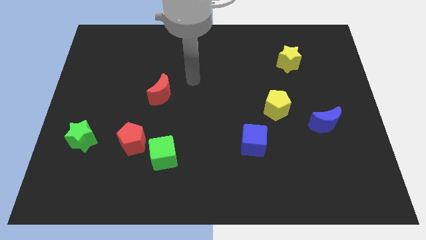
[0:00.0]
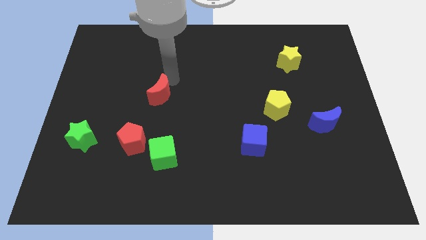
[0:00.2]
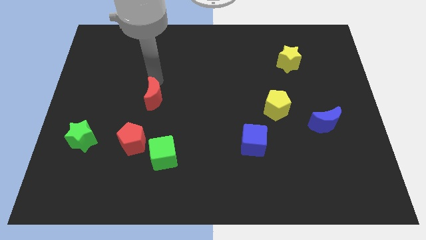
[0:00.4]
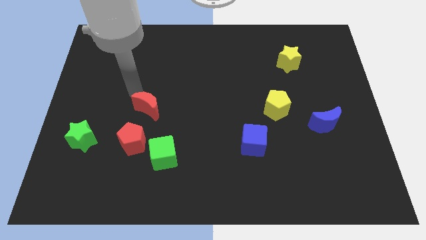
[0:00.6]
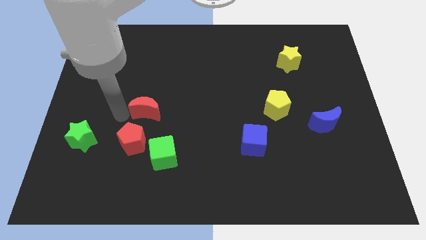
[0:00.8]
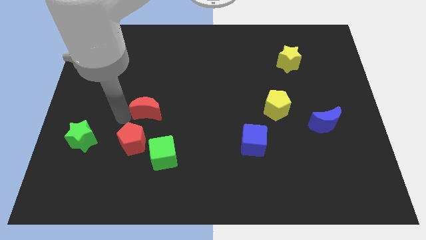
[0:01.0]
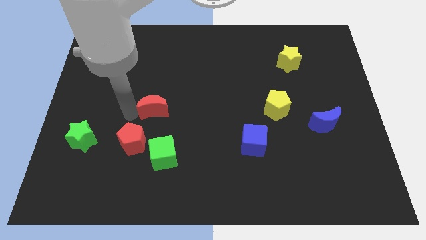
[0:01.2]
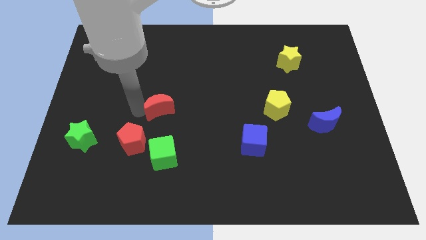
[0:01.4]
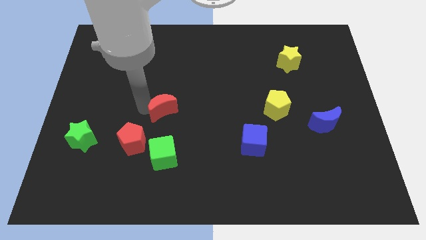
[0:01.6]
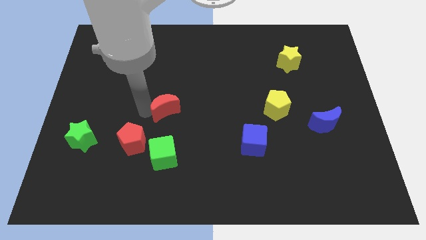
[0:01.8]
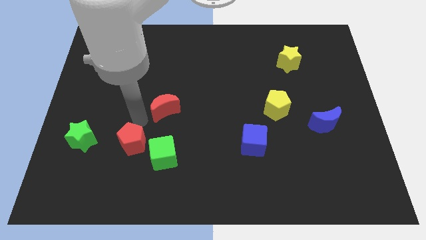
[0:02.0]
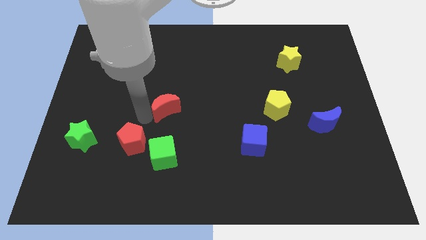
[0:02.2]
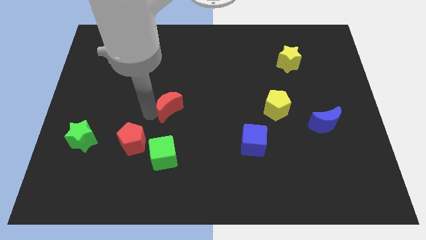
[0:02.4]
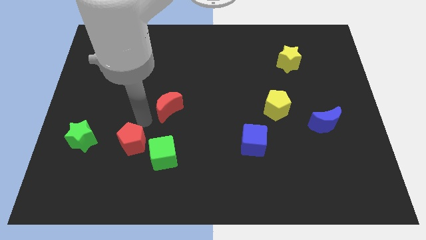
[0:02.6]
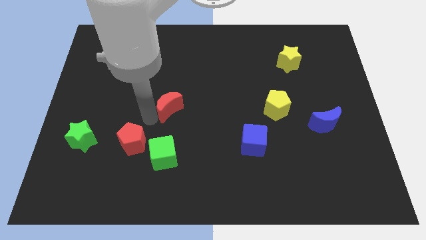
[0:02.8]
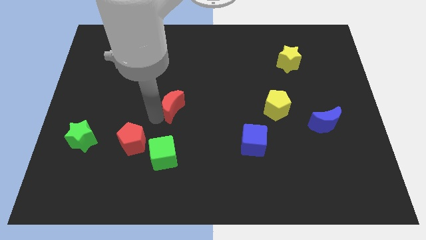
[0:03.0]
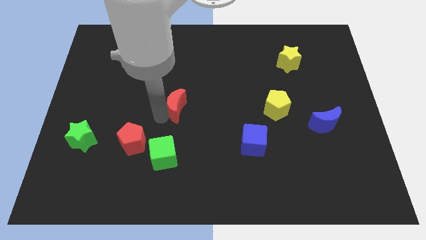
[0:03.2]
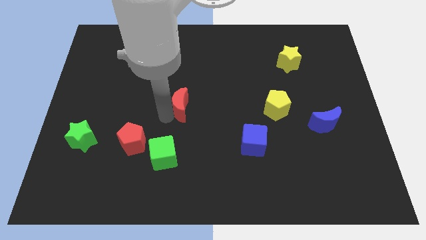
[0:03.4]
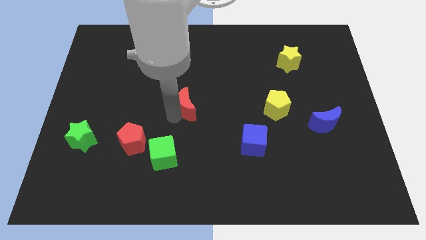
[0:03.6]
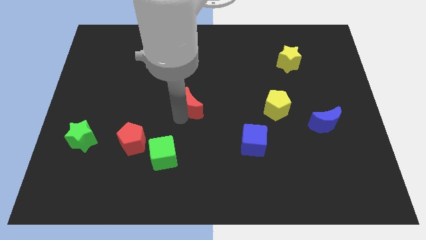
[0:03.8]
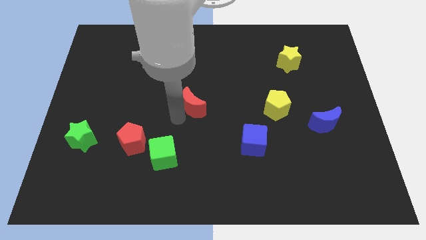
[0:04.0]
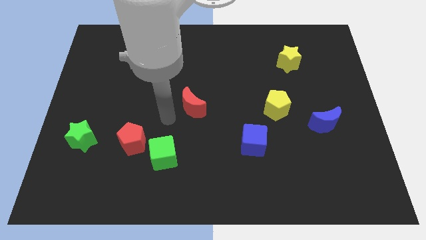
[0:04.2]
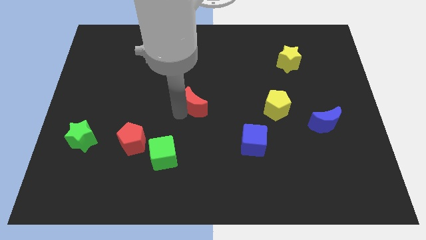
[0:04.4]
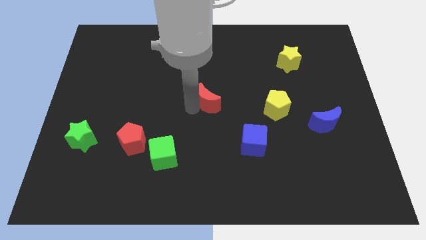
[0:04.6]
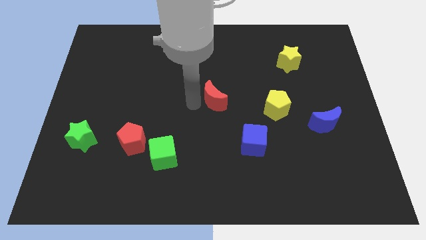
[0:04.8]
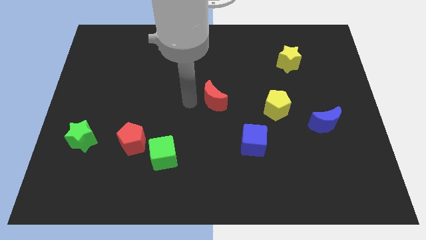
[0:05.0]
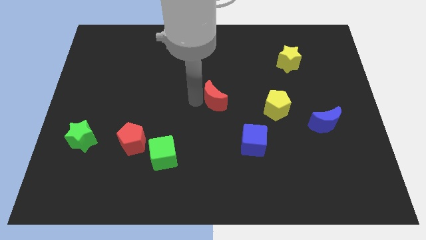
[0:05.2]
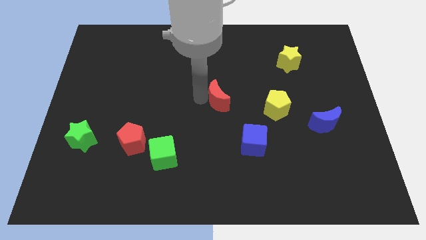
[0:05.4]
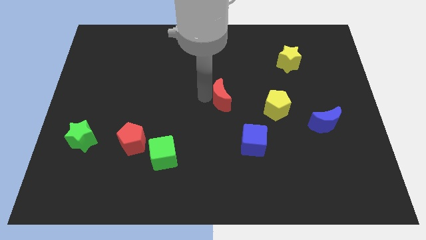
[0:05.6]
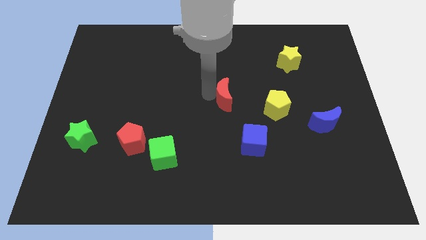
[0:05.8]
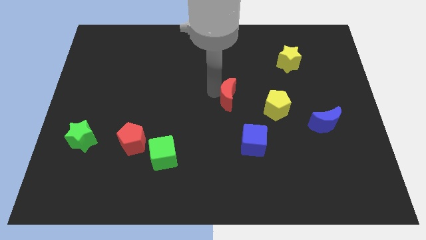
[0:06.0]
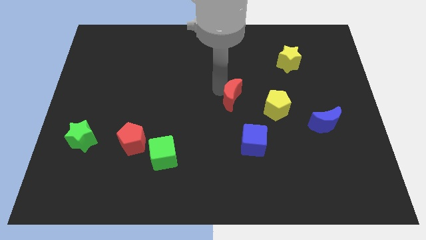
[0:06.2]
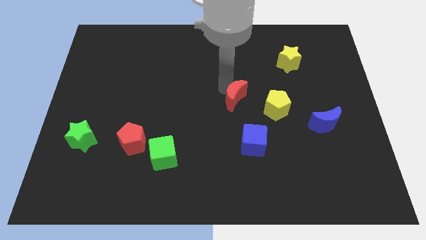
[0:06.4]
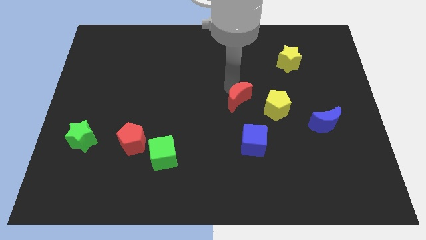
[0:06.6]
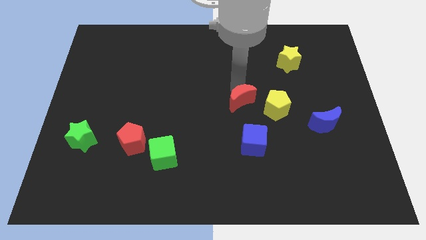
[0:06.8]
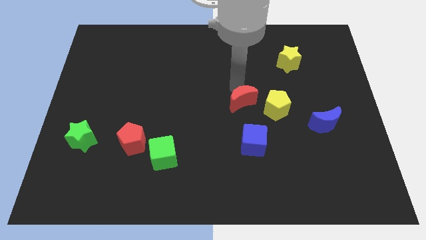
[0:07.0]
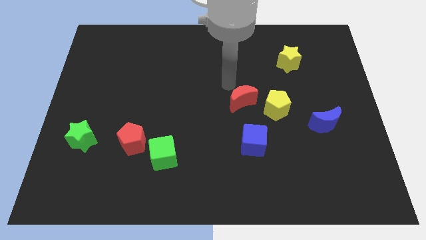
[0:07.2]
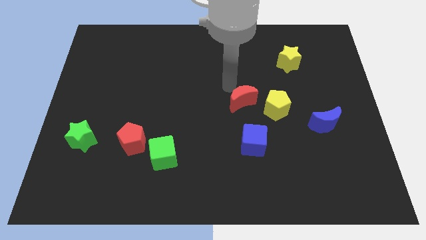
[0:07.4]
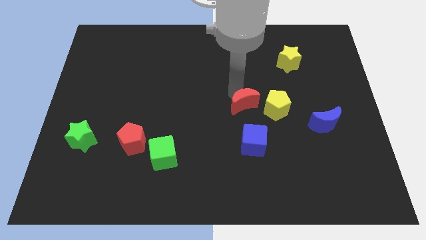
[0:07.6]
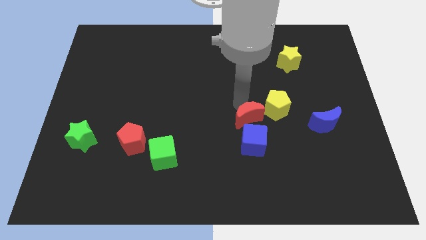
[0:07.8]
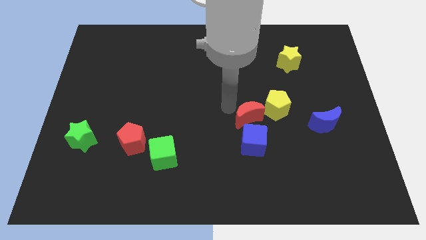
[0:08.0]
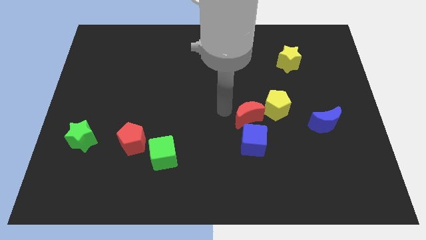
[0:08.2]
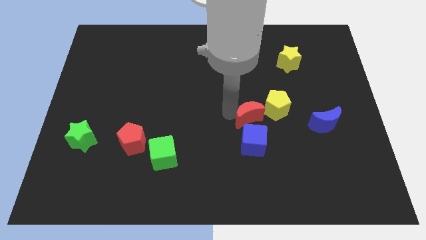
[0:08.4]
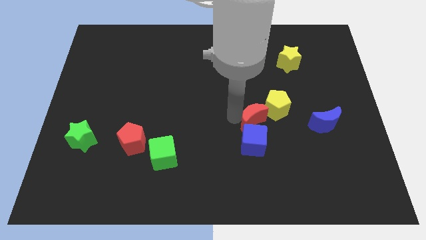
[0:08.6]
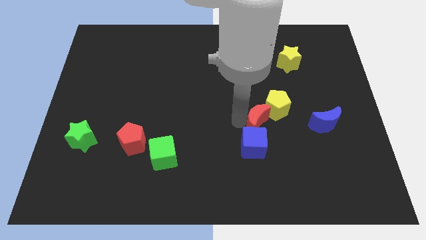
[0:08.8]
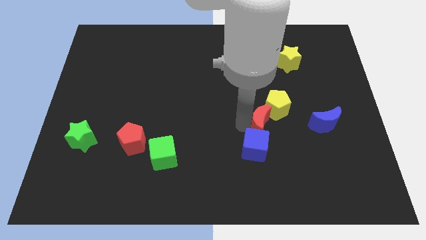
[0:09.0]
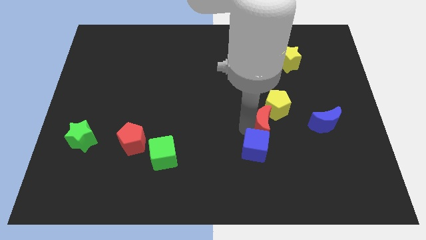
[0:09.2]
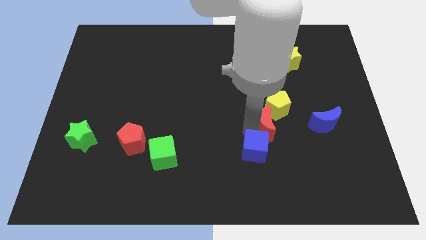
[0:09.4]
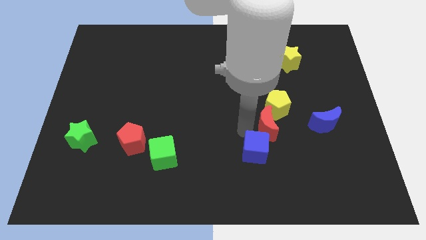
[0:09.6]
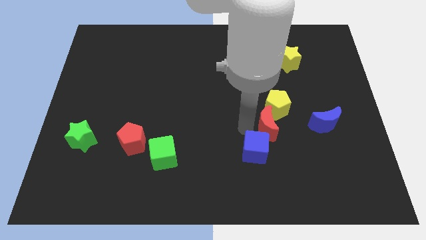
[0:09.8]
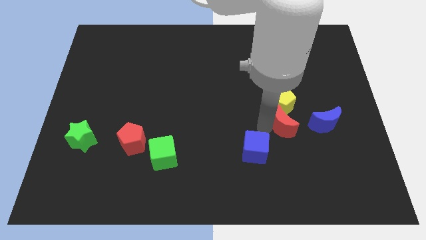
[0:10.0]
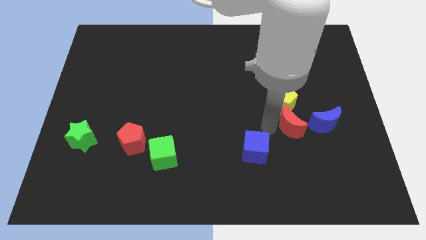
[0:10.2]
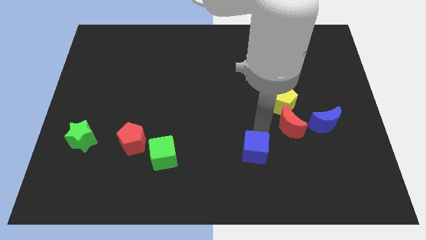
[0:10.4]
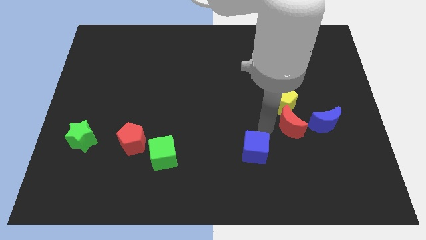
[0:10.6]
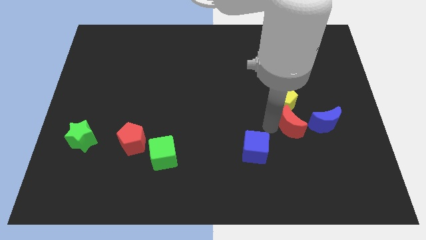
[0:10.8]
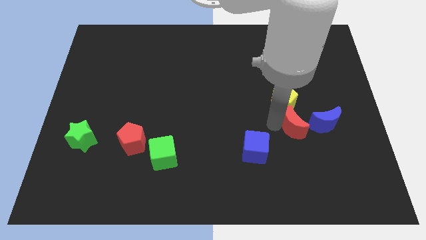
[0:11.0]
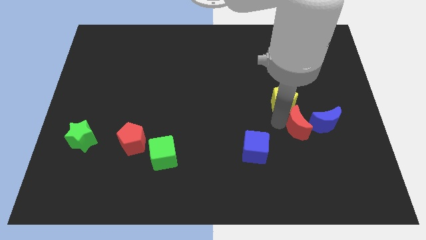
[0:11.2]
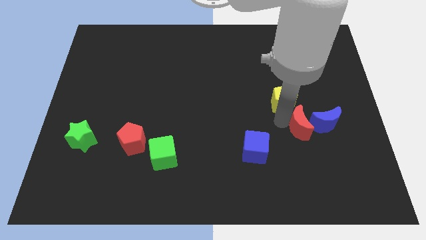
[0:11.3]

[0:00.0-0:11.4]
put the red moon next to the blue moon

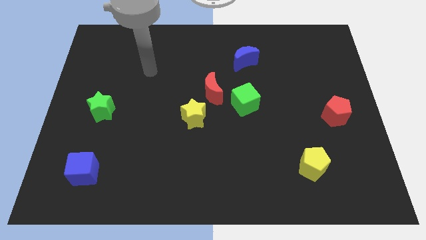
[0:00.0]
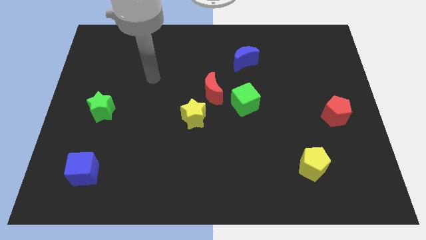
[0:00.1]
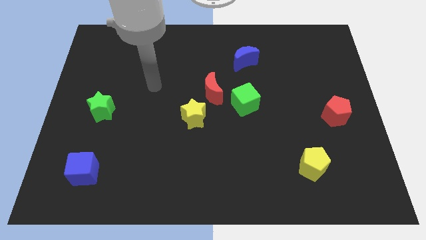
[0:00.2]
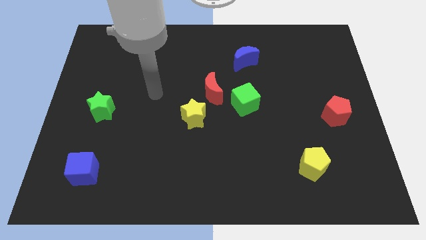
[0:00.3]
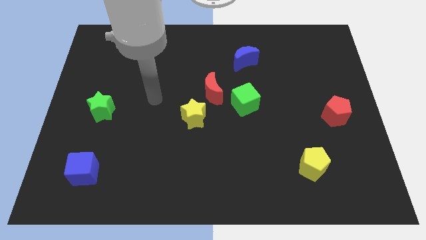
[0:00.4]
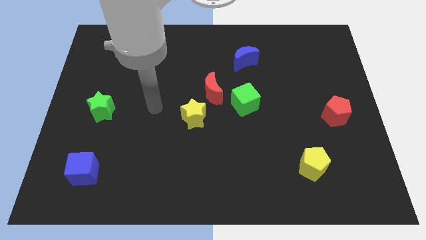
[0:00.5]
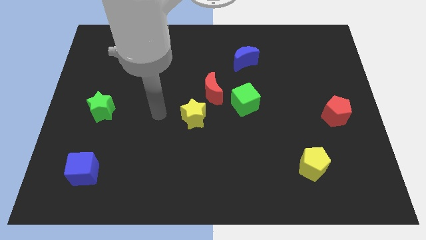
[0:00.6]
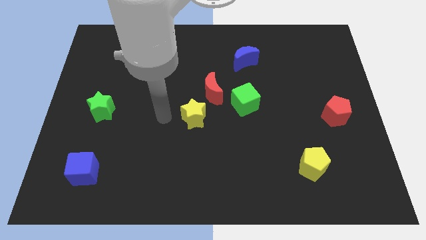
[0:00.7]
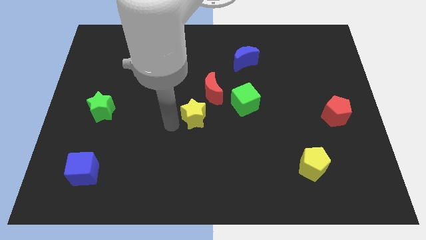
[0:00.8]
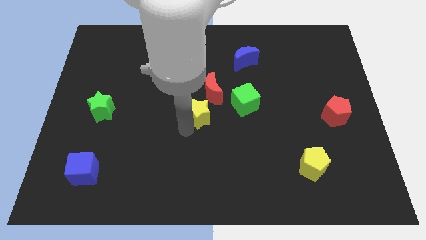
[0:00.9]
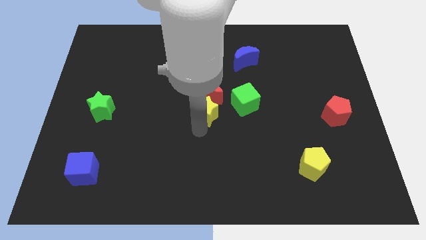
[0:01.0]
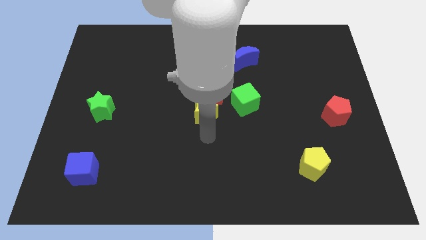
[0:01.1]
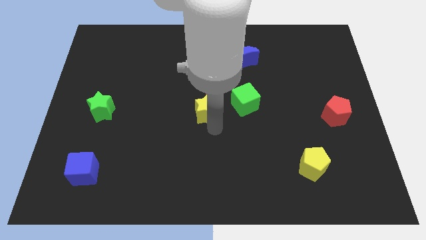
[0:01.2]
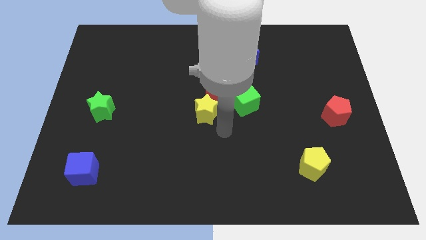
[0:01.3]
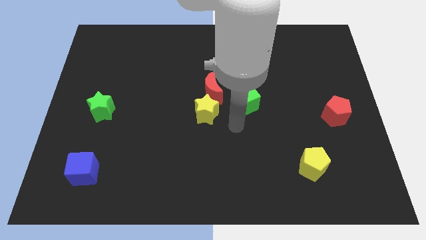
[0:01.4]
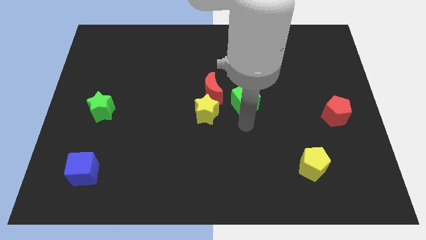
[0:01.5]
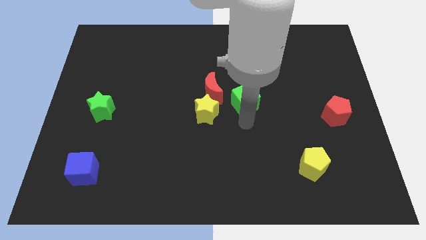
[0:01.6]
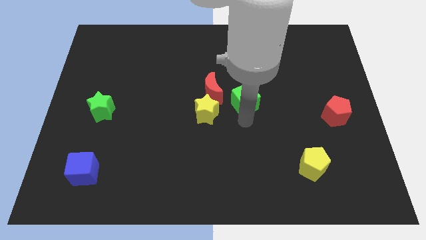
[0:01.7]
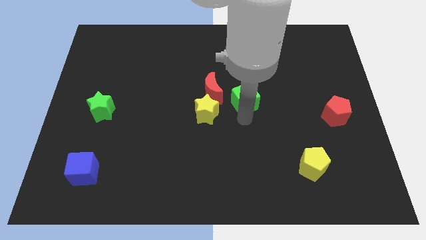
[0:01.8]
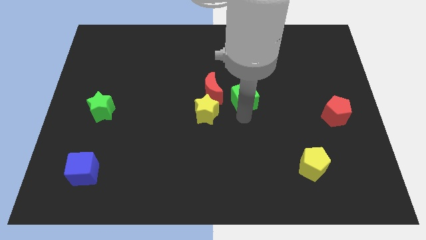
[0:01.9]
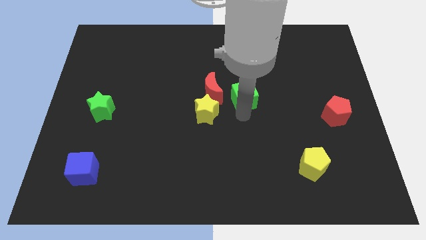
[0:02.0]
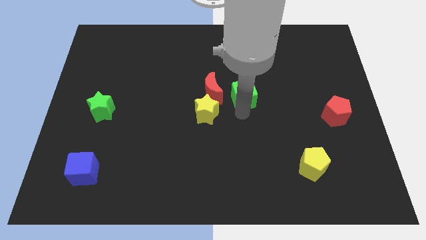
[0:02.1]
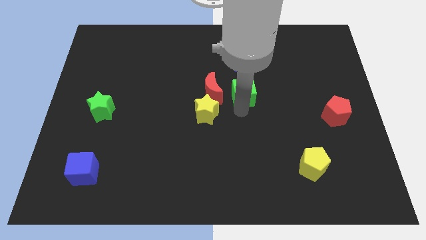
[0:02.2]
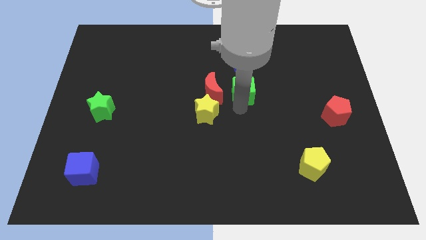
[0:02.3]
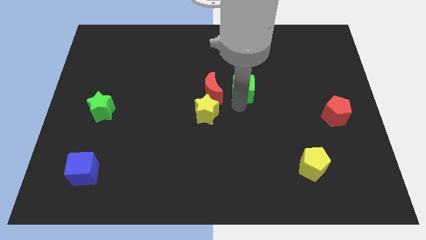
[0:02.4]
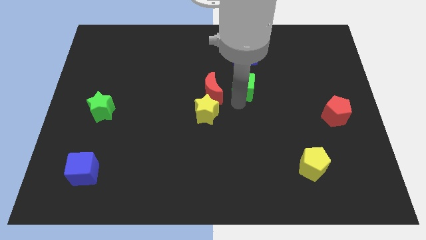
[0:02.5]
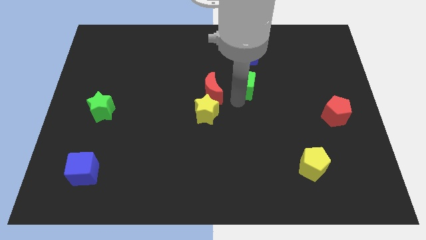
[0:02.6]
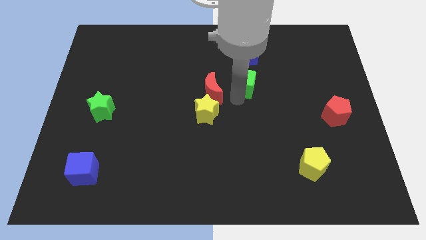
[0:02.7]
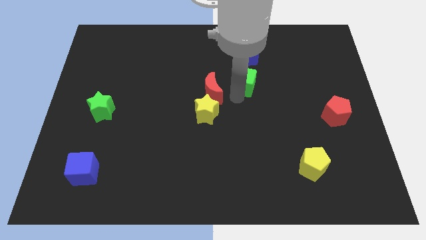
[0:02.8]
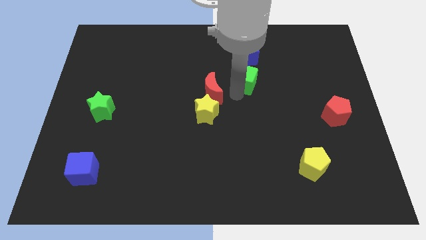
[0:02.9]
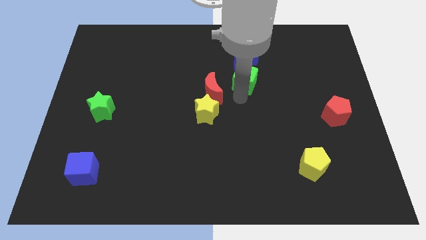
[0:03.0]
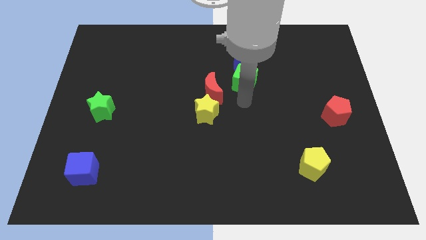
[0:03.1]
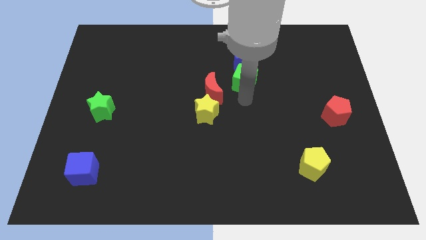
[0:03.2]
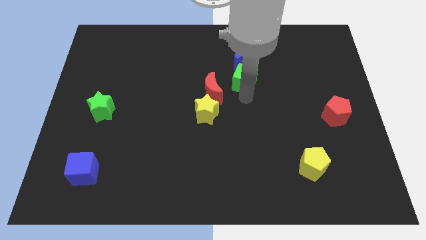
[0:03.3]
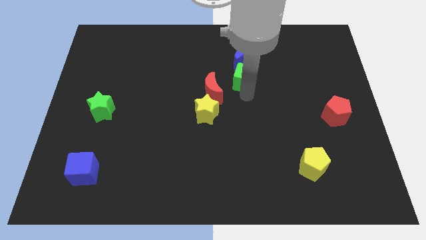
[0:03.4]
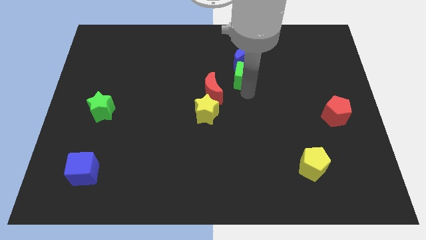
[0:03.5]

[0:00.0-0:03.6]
move the green cube close to the blue moon
